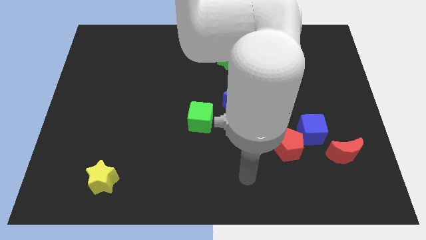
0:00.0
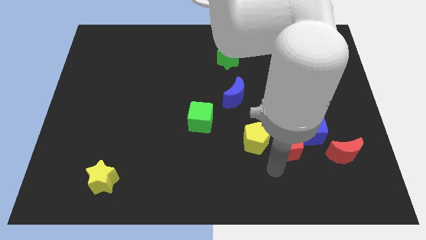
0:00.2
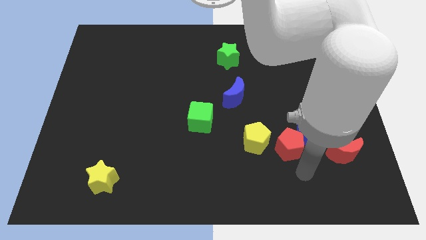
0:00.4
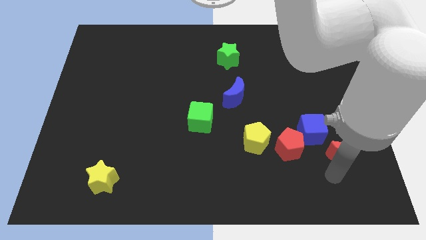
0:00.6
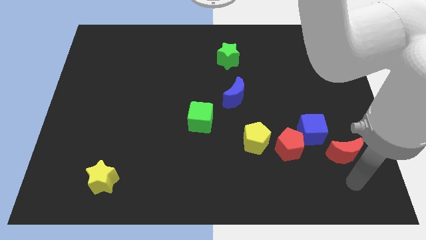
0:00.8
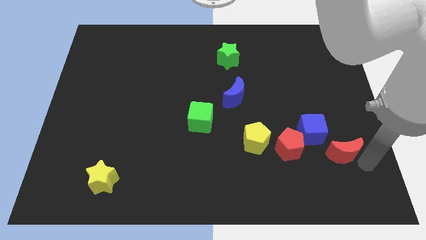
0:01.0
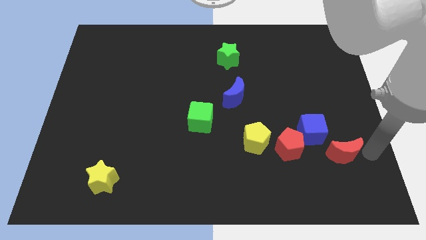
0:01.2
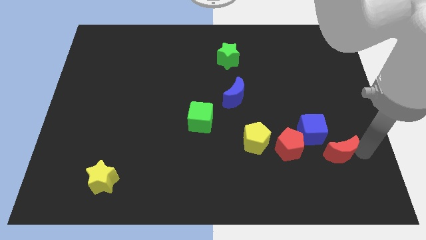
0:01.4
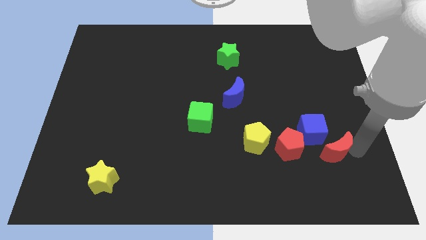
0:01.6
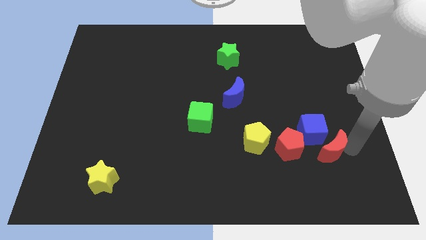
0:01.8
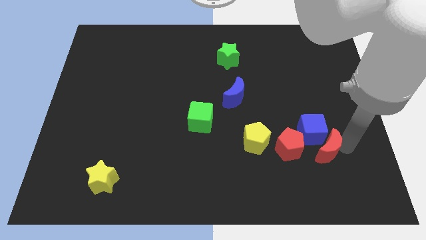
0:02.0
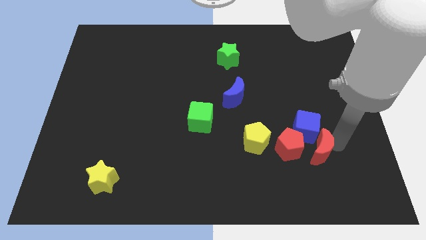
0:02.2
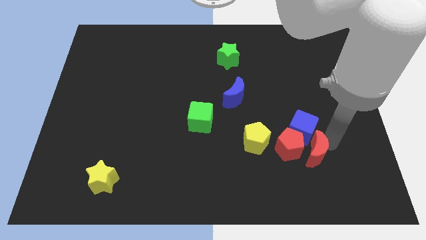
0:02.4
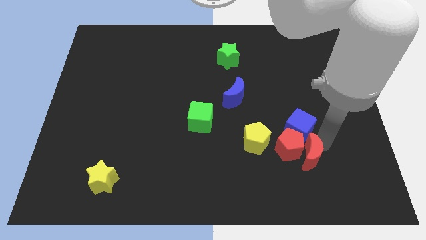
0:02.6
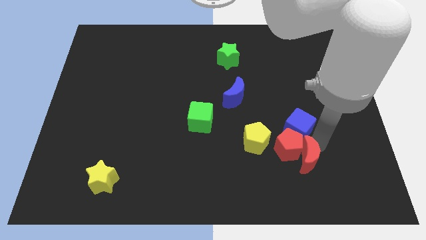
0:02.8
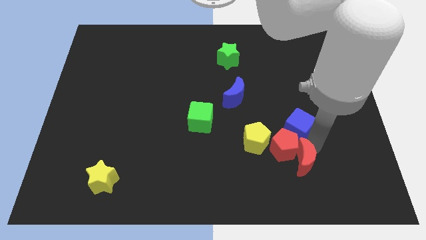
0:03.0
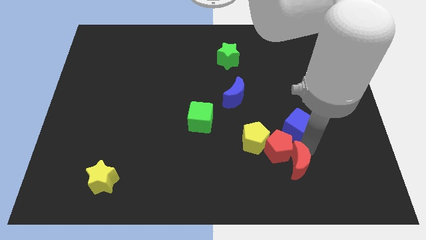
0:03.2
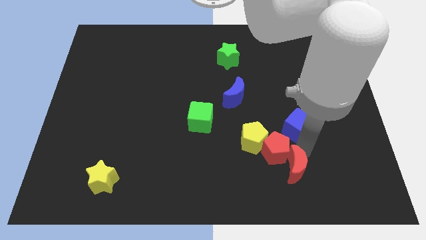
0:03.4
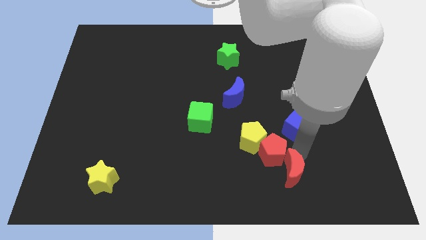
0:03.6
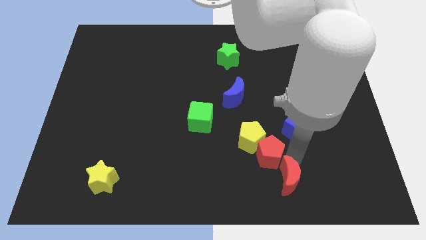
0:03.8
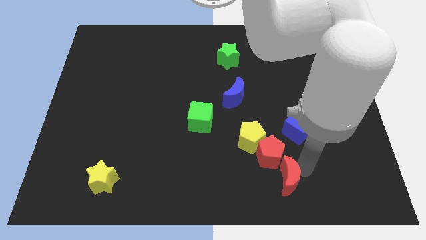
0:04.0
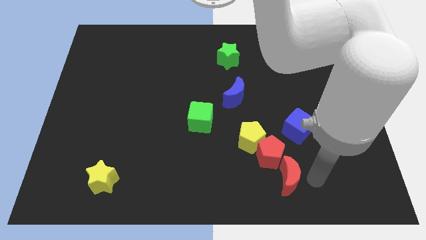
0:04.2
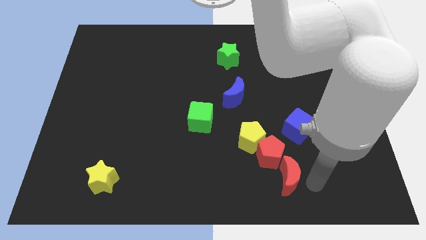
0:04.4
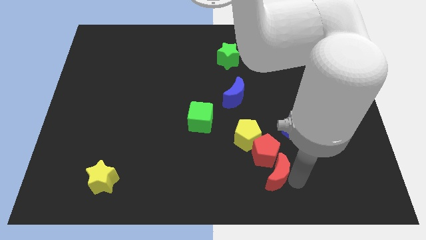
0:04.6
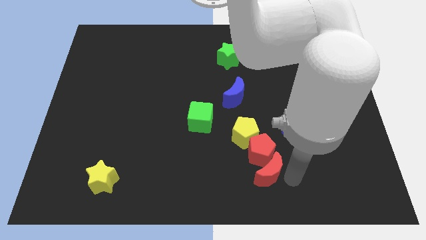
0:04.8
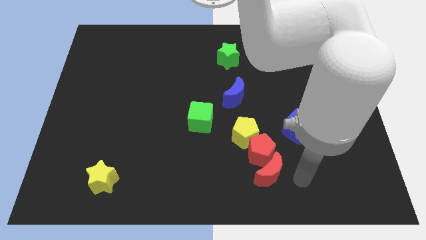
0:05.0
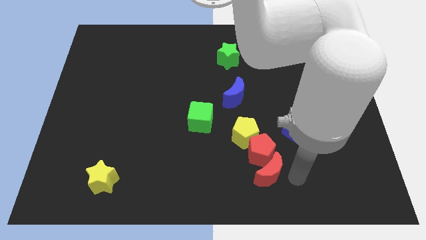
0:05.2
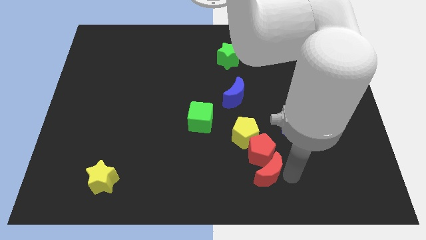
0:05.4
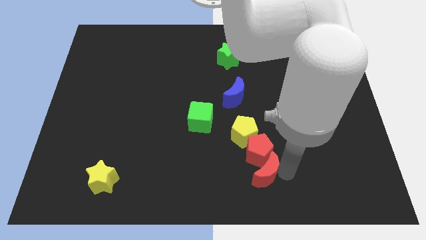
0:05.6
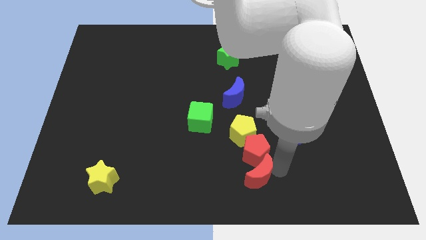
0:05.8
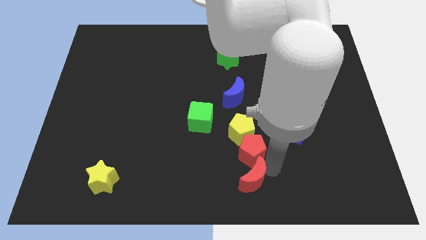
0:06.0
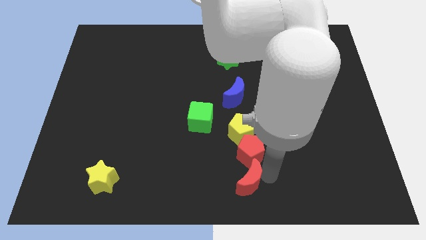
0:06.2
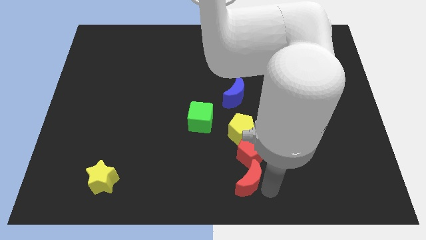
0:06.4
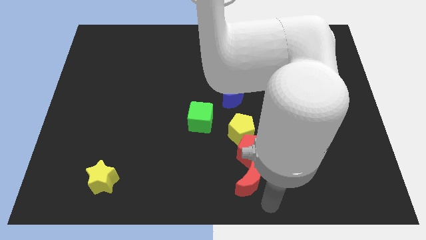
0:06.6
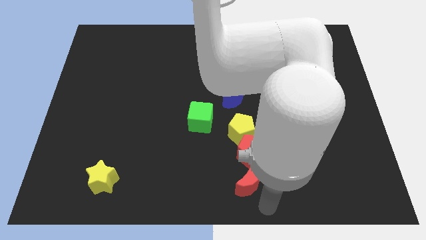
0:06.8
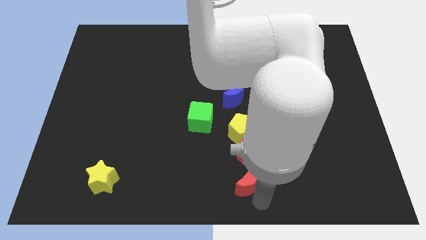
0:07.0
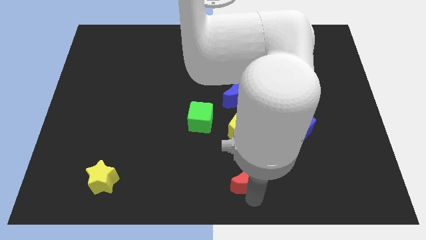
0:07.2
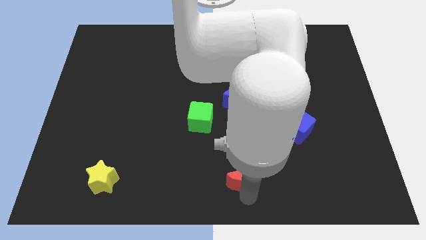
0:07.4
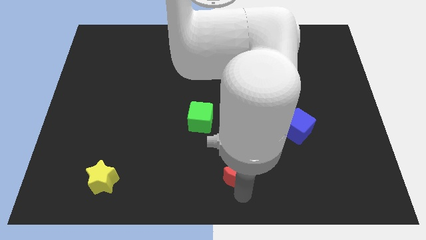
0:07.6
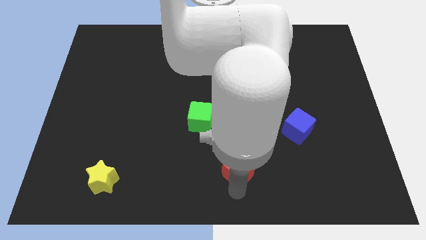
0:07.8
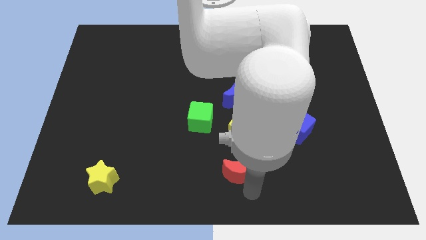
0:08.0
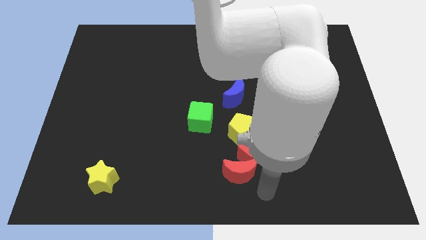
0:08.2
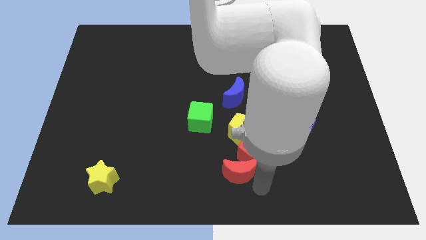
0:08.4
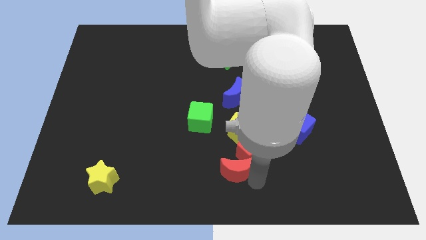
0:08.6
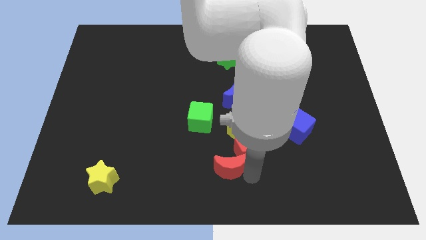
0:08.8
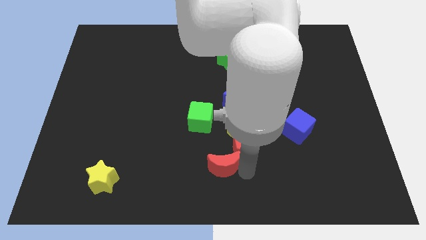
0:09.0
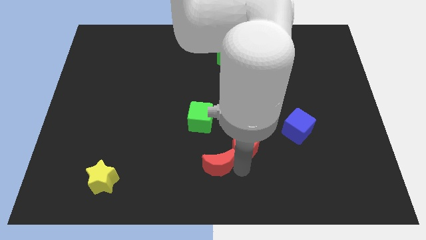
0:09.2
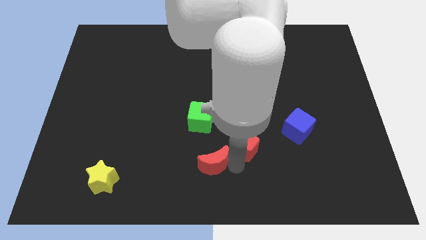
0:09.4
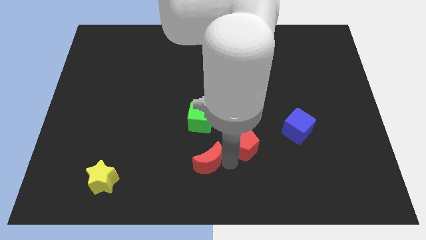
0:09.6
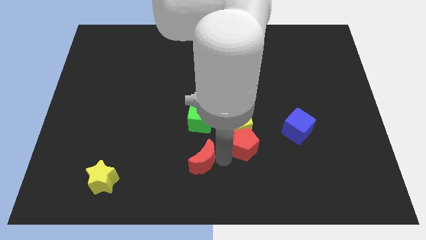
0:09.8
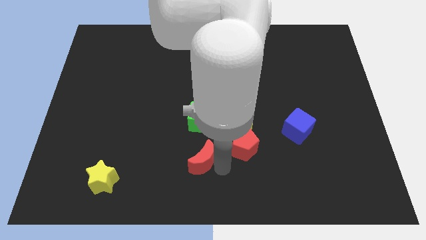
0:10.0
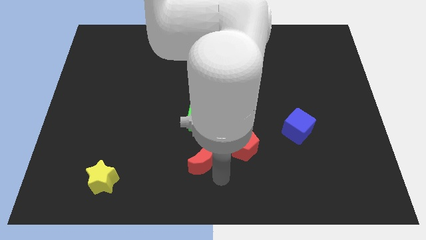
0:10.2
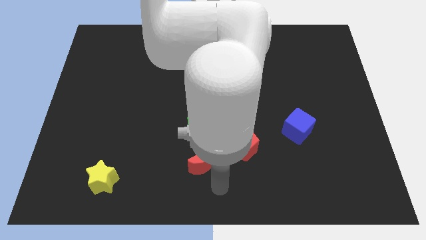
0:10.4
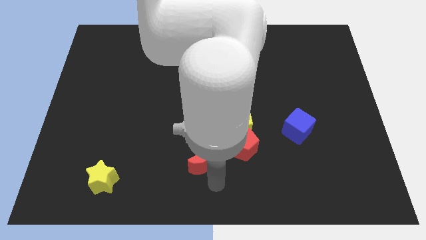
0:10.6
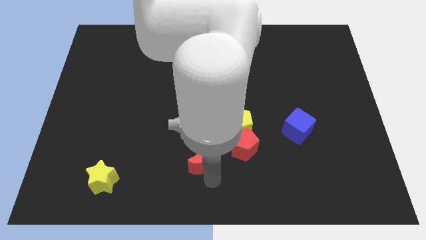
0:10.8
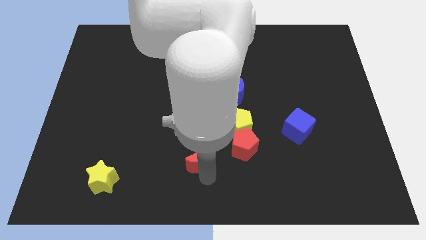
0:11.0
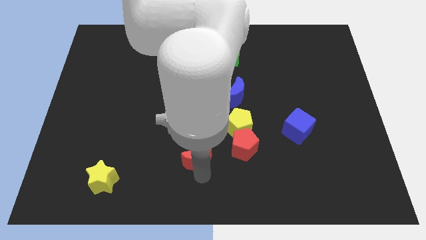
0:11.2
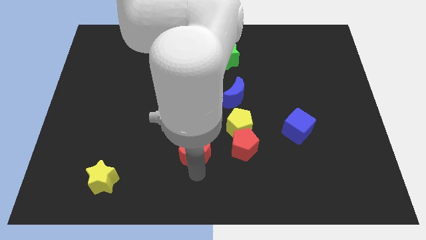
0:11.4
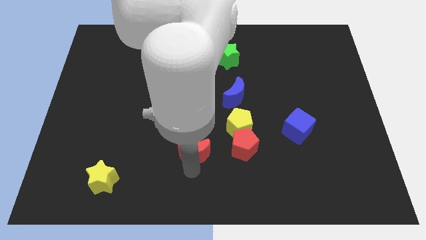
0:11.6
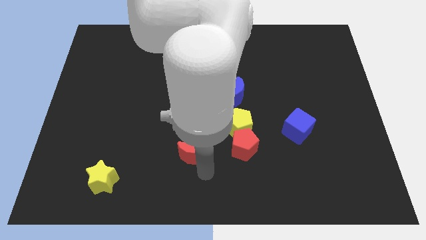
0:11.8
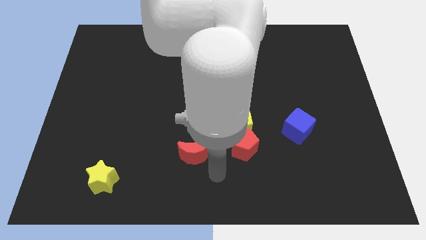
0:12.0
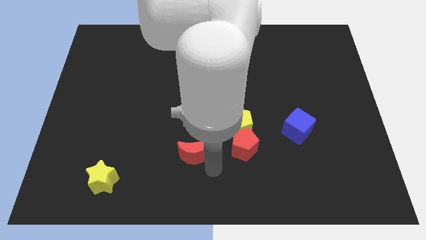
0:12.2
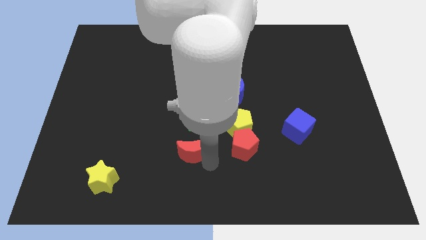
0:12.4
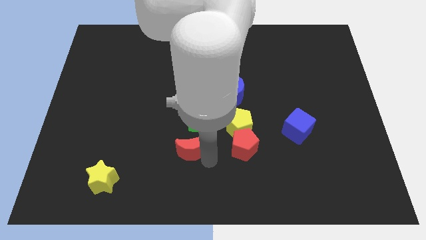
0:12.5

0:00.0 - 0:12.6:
put the red moon diagonally down and to the left of the green cube

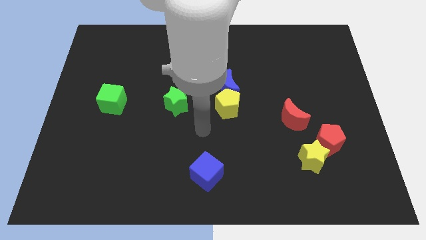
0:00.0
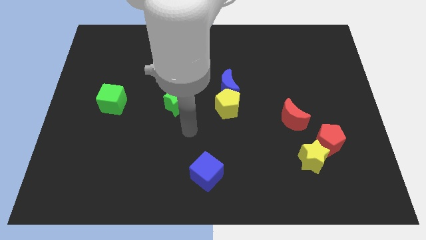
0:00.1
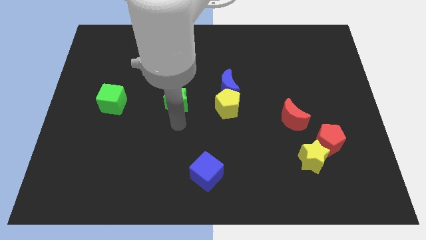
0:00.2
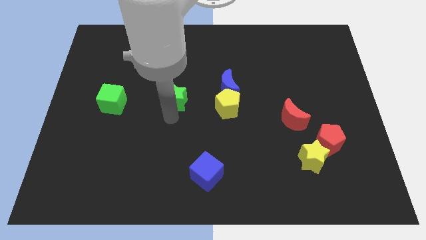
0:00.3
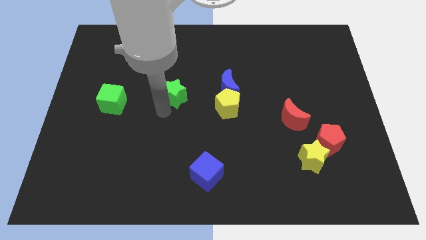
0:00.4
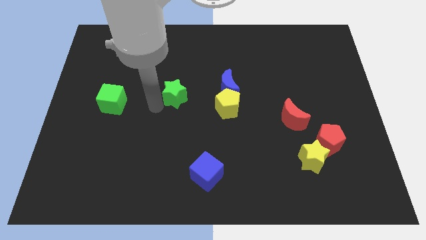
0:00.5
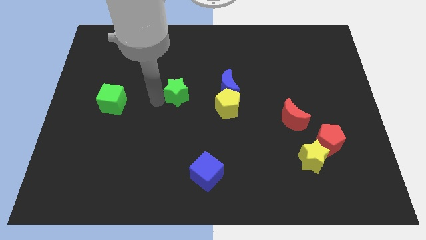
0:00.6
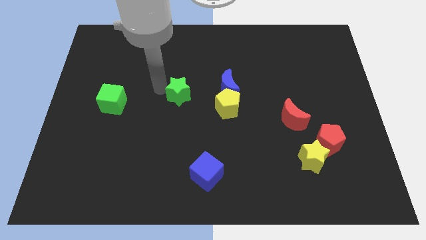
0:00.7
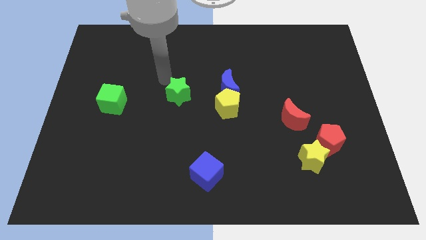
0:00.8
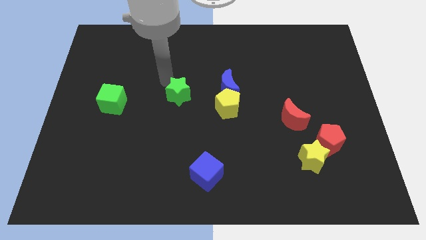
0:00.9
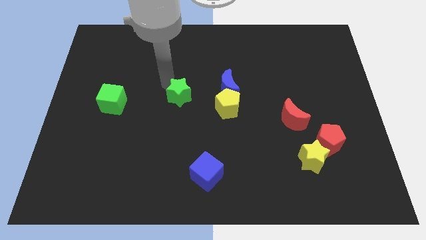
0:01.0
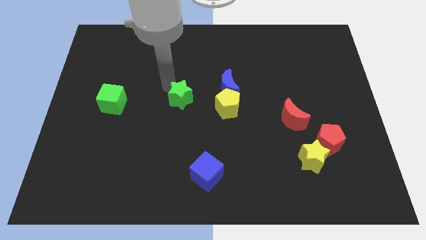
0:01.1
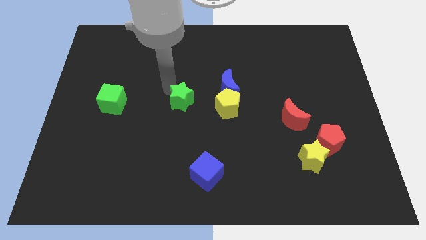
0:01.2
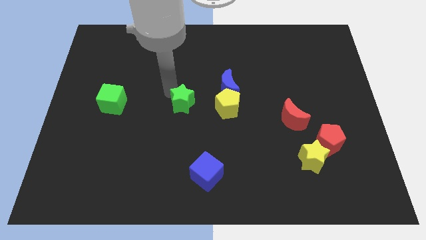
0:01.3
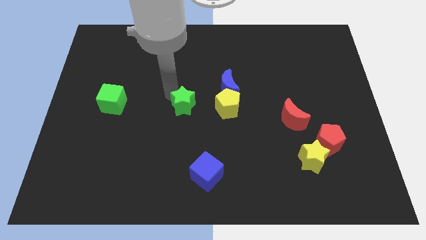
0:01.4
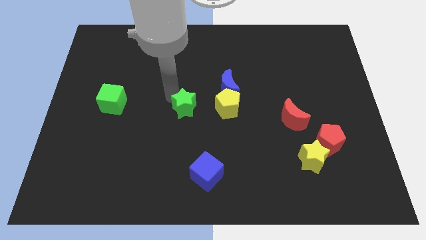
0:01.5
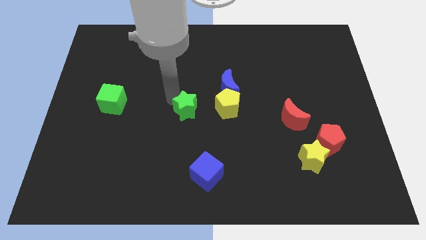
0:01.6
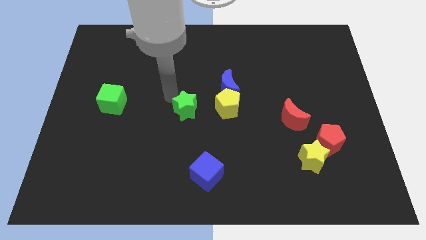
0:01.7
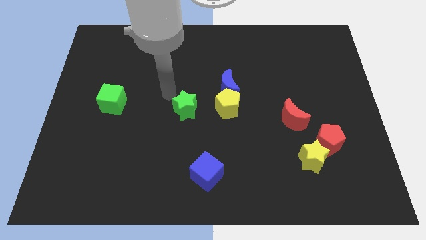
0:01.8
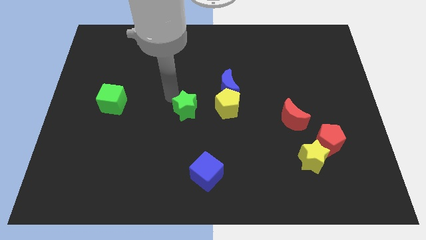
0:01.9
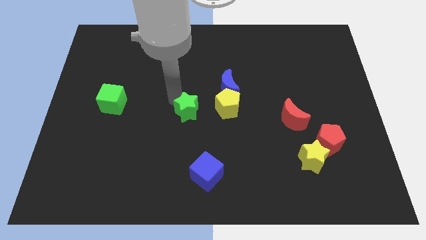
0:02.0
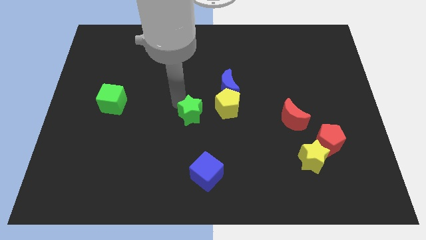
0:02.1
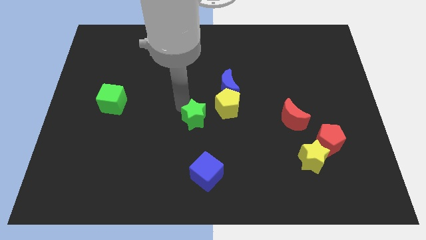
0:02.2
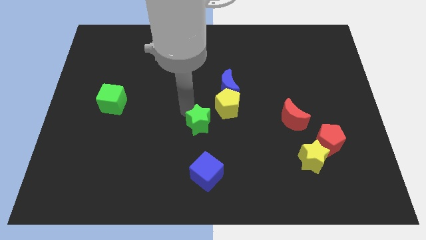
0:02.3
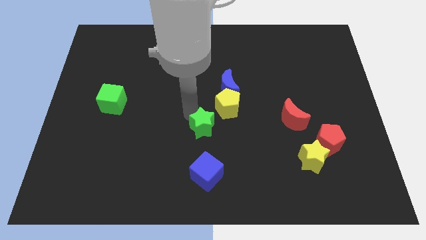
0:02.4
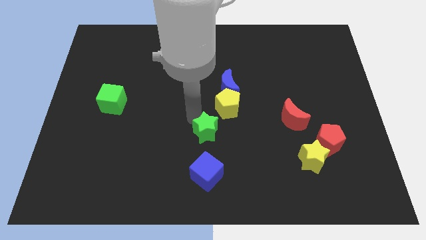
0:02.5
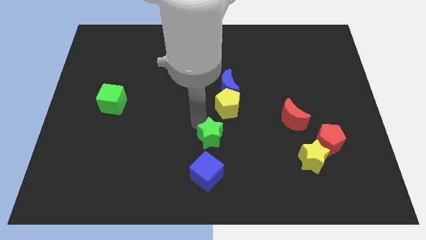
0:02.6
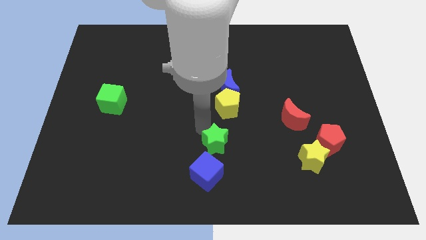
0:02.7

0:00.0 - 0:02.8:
move the green star to the top right side of the blue cube
